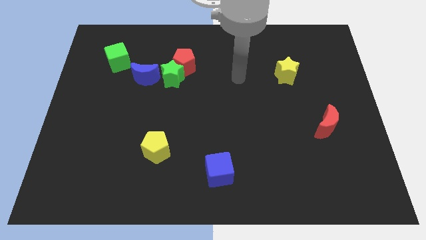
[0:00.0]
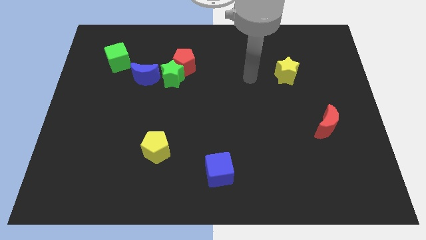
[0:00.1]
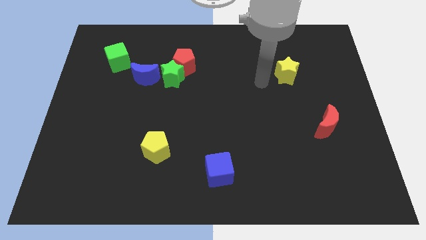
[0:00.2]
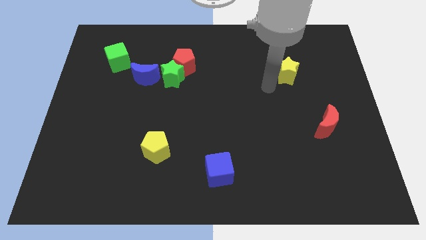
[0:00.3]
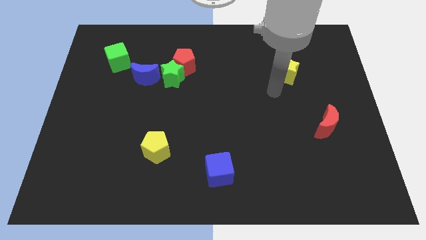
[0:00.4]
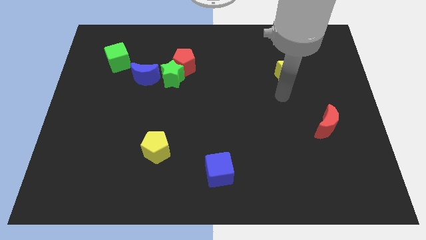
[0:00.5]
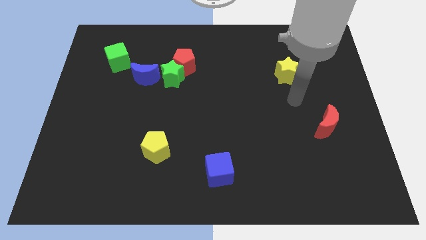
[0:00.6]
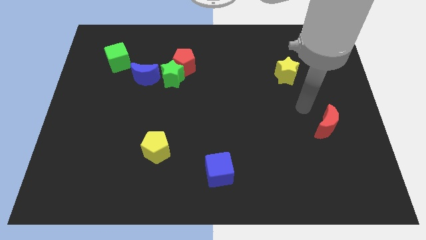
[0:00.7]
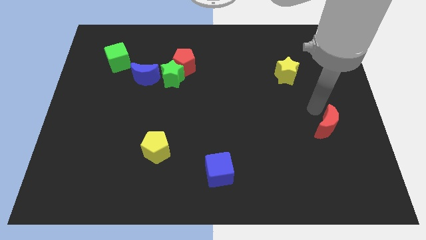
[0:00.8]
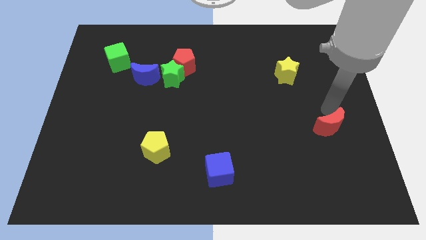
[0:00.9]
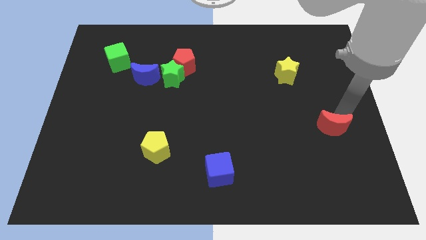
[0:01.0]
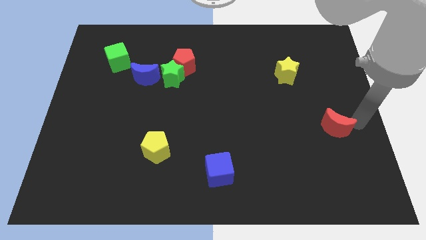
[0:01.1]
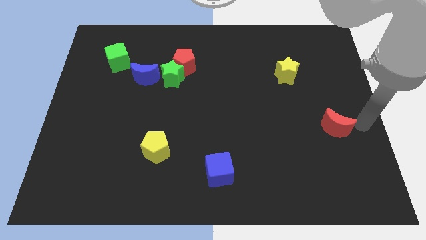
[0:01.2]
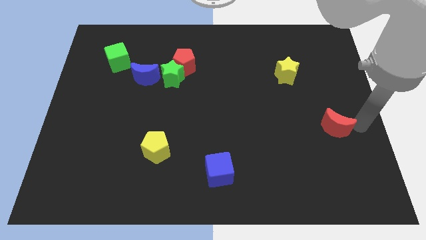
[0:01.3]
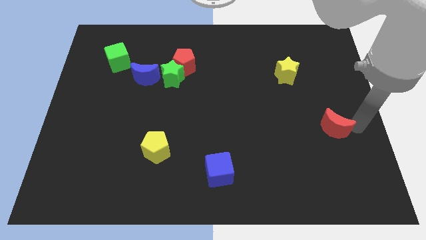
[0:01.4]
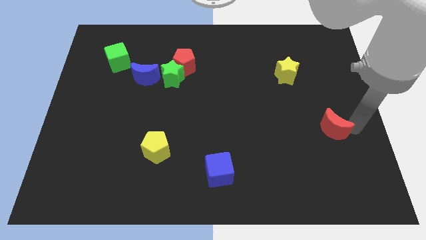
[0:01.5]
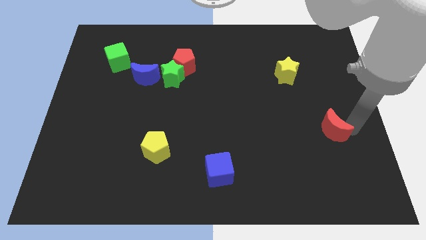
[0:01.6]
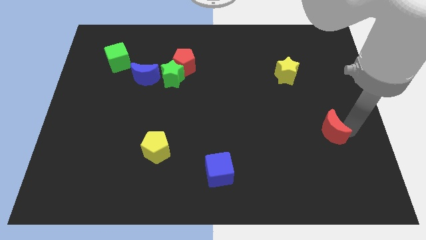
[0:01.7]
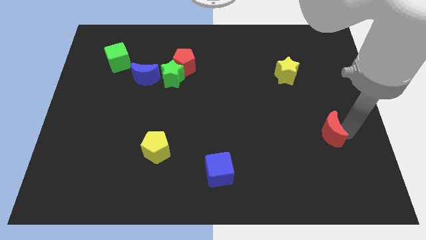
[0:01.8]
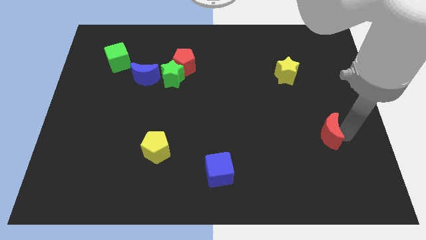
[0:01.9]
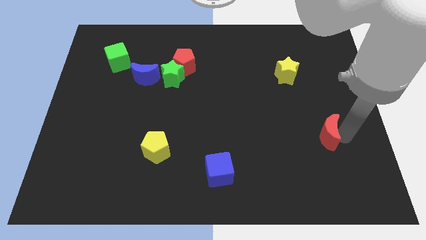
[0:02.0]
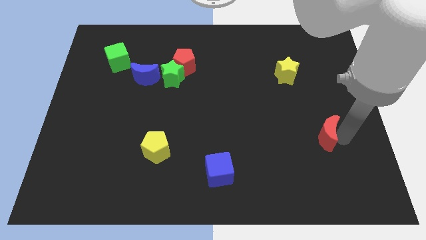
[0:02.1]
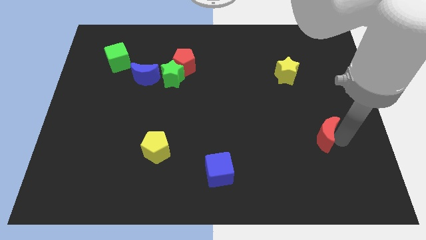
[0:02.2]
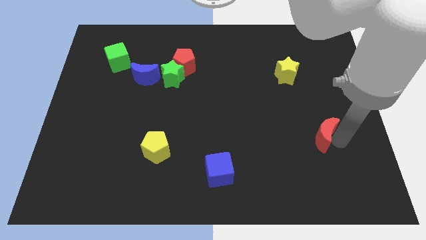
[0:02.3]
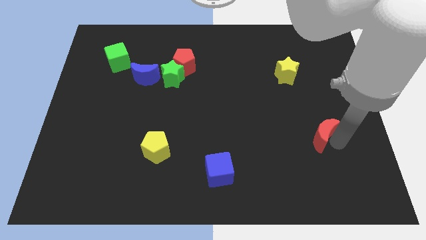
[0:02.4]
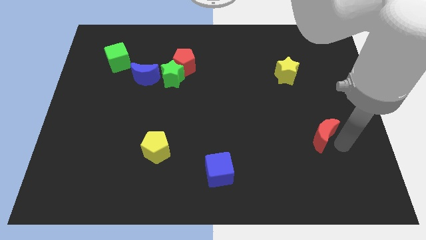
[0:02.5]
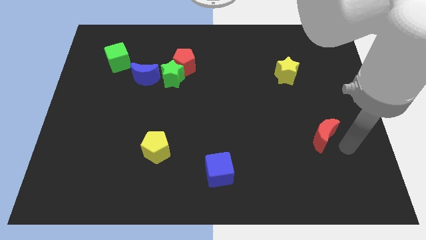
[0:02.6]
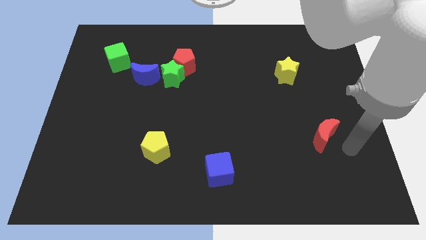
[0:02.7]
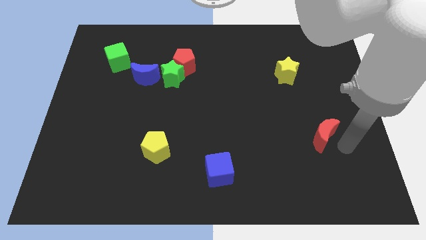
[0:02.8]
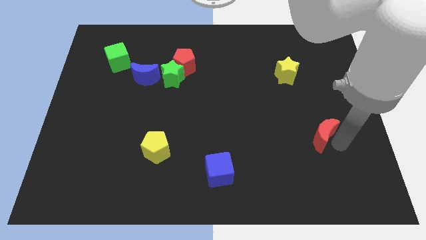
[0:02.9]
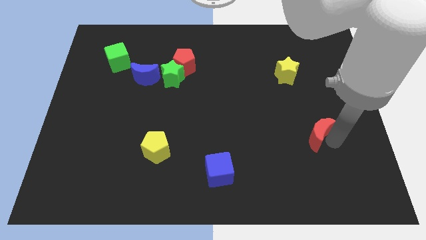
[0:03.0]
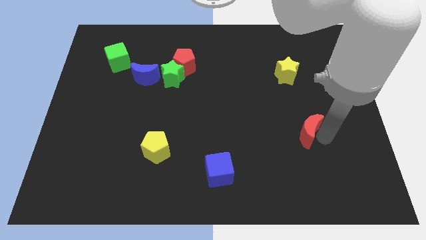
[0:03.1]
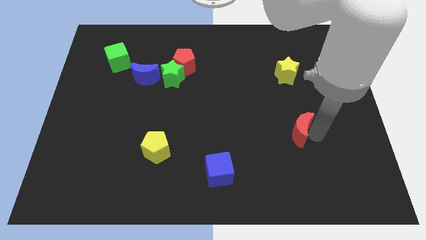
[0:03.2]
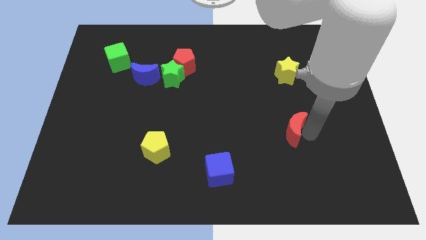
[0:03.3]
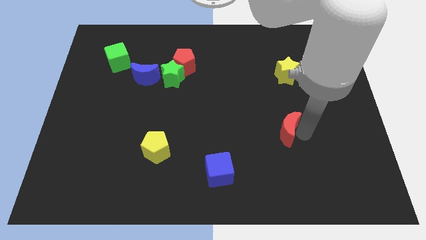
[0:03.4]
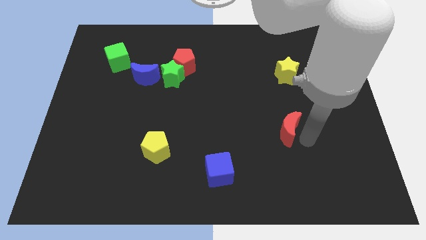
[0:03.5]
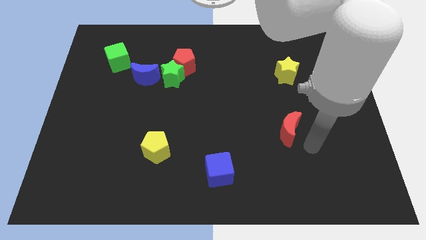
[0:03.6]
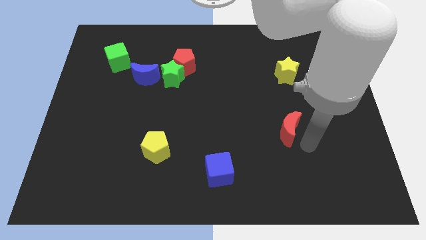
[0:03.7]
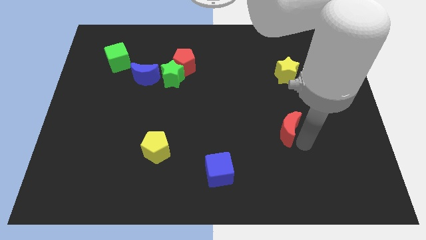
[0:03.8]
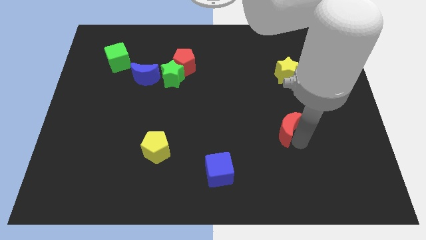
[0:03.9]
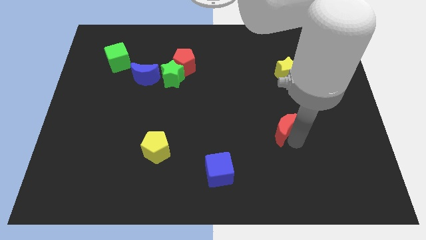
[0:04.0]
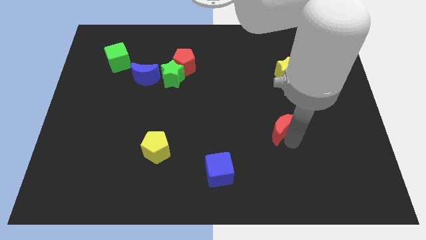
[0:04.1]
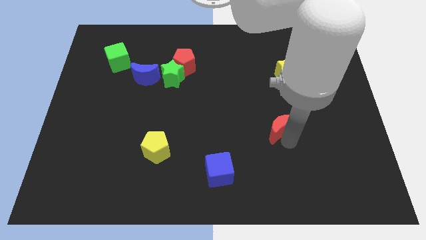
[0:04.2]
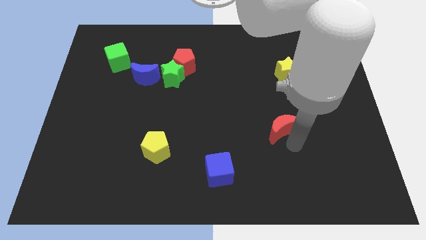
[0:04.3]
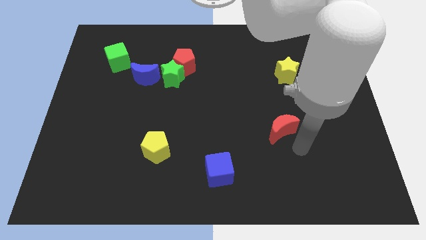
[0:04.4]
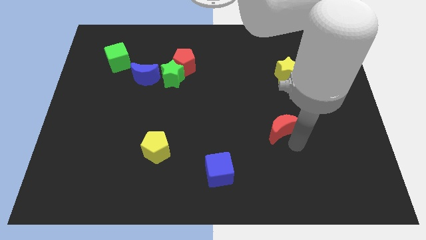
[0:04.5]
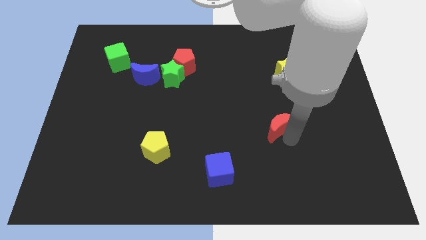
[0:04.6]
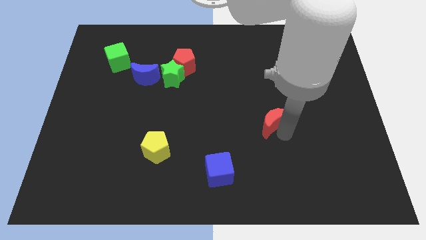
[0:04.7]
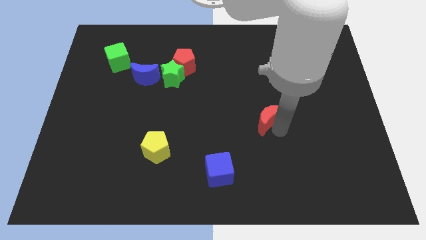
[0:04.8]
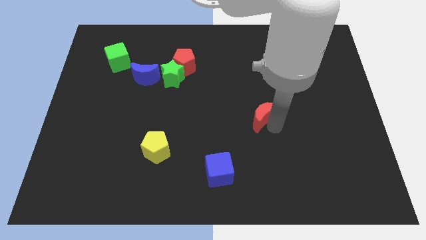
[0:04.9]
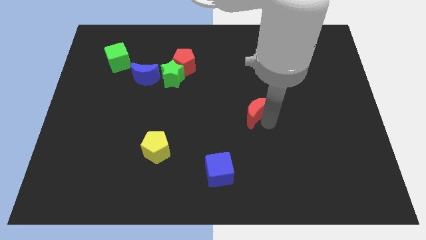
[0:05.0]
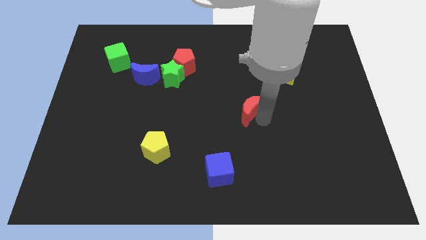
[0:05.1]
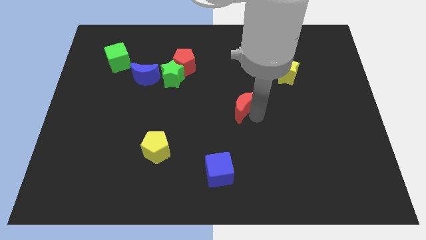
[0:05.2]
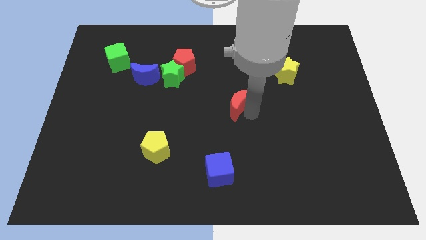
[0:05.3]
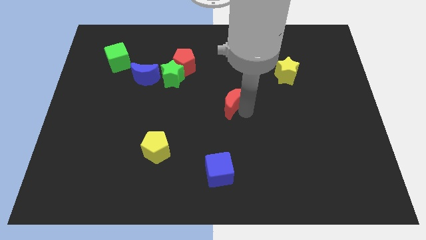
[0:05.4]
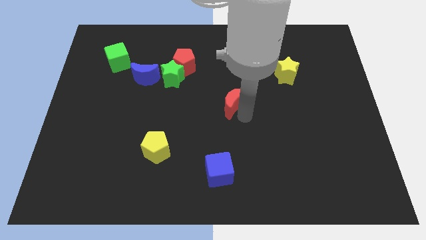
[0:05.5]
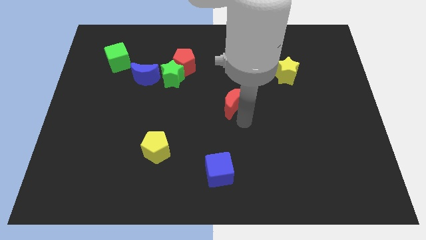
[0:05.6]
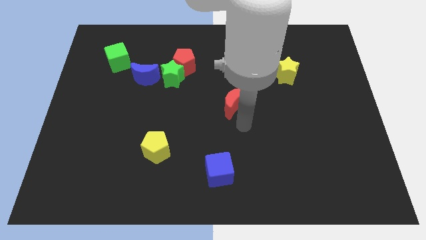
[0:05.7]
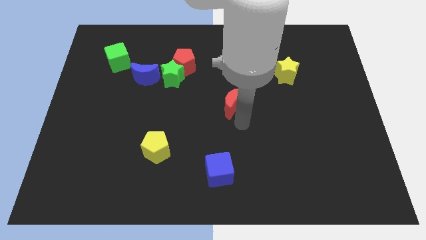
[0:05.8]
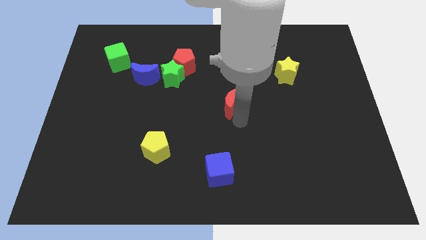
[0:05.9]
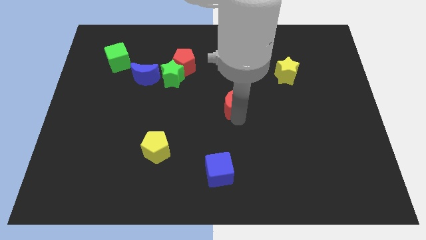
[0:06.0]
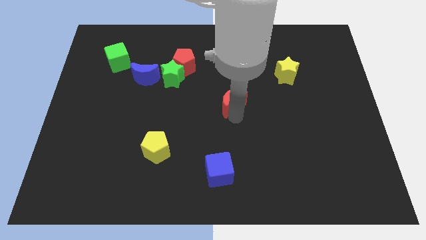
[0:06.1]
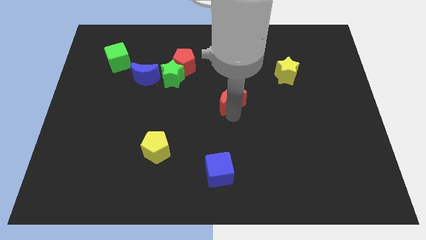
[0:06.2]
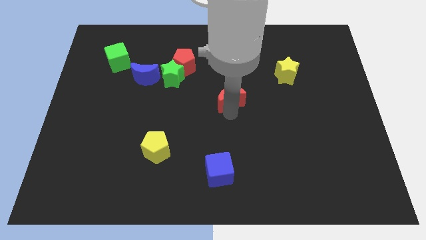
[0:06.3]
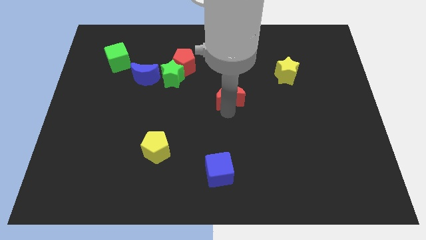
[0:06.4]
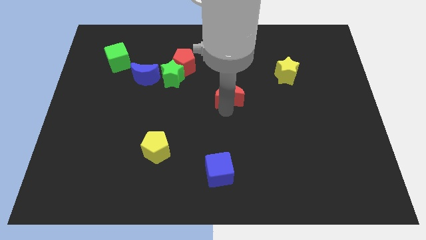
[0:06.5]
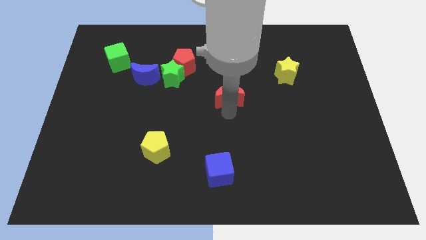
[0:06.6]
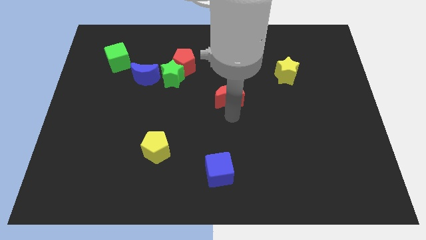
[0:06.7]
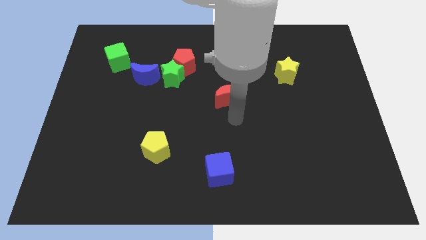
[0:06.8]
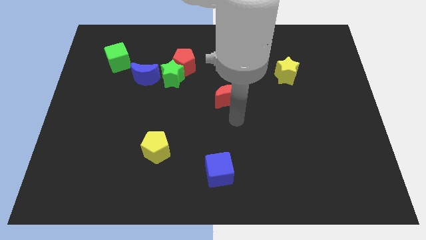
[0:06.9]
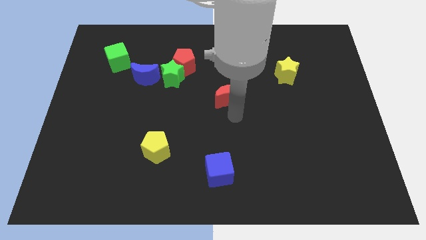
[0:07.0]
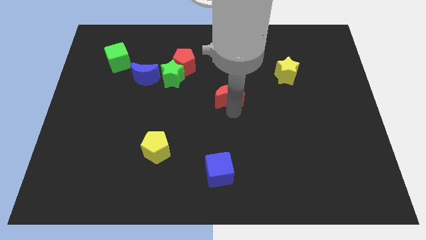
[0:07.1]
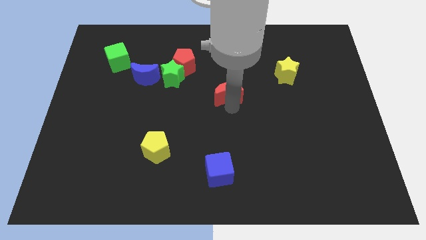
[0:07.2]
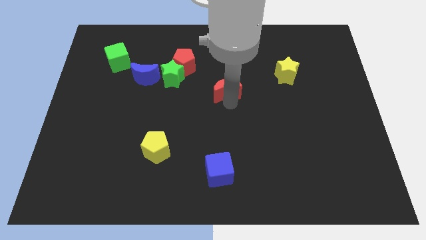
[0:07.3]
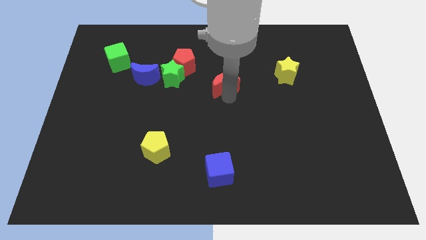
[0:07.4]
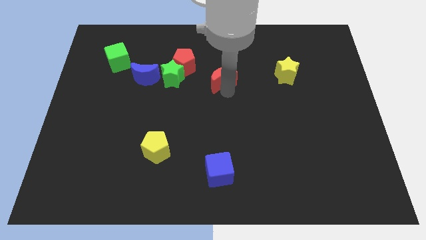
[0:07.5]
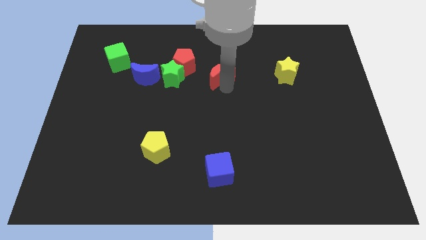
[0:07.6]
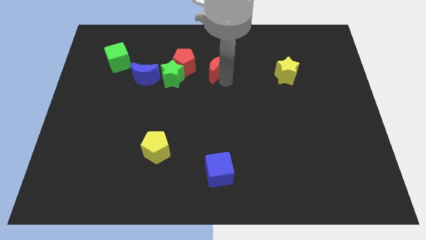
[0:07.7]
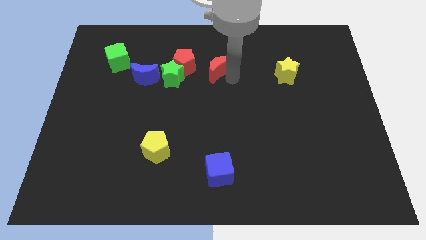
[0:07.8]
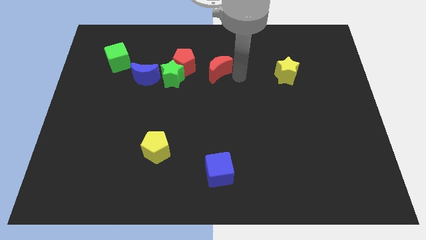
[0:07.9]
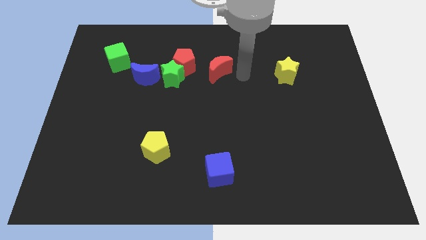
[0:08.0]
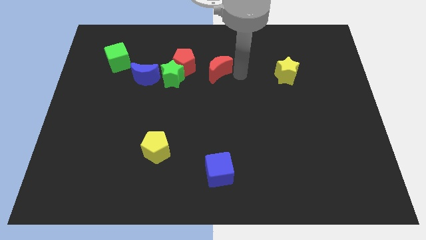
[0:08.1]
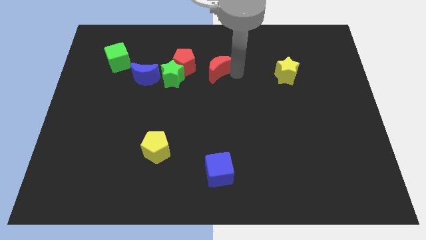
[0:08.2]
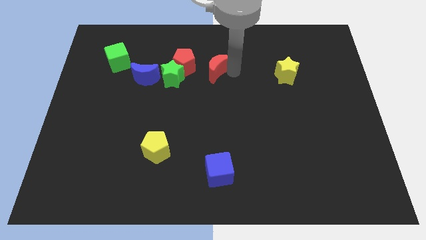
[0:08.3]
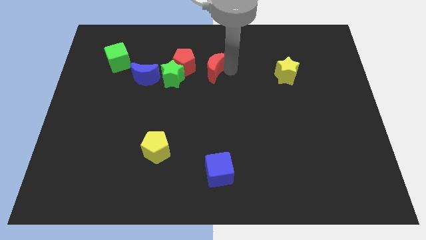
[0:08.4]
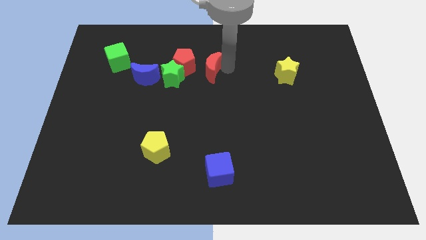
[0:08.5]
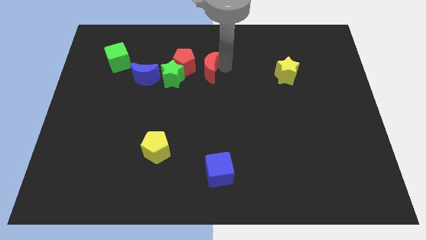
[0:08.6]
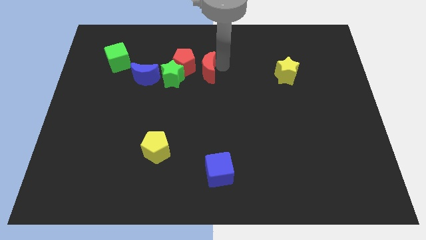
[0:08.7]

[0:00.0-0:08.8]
put the red moon next to the red pentagon
